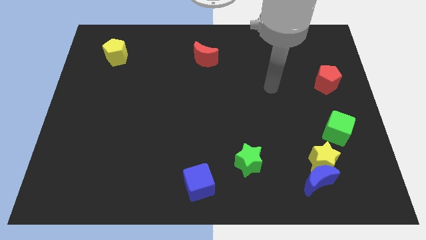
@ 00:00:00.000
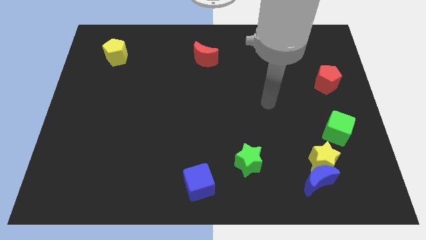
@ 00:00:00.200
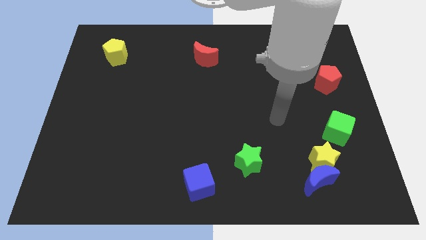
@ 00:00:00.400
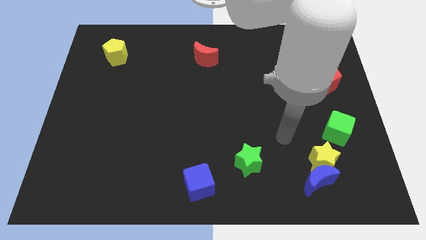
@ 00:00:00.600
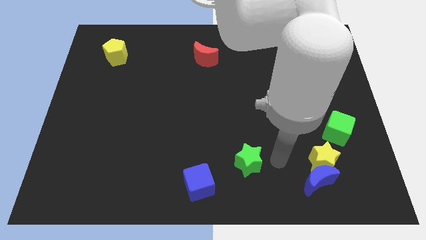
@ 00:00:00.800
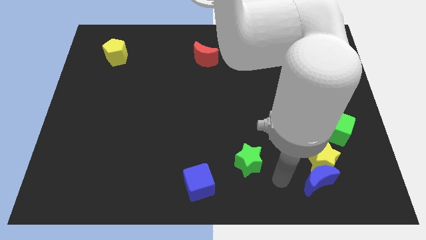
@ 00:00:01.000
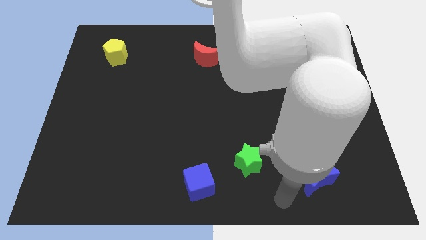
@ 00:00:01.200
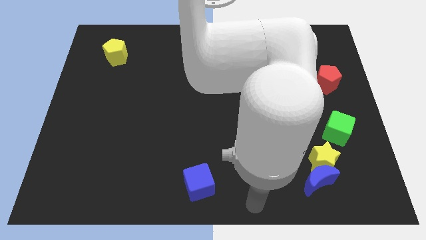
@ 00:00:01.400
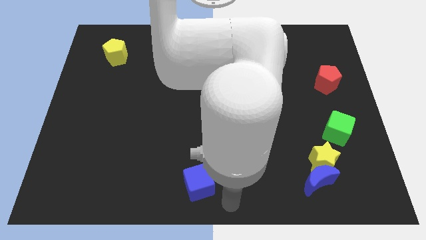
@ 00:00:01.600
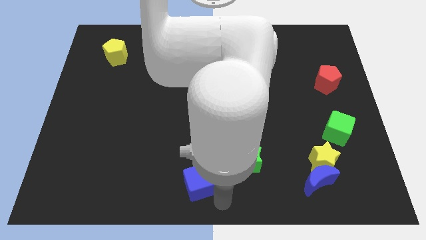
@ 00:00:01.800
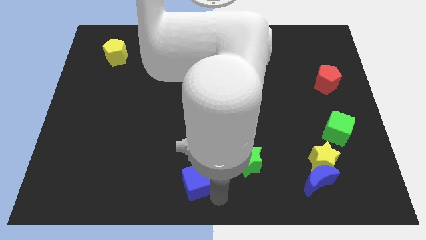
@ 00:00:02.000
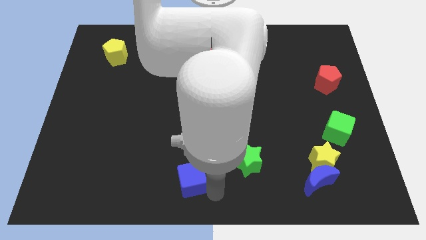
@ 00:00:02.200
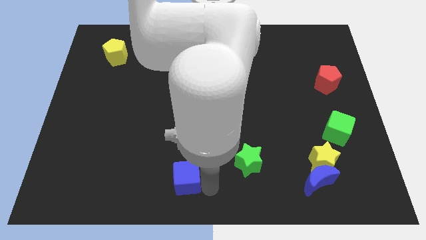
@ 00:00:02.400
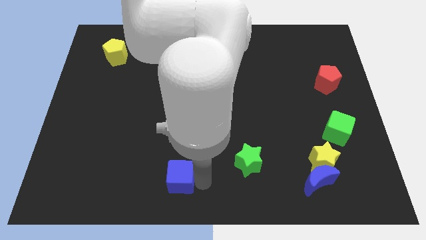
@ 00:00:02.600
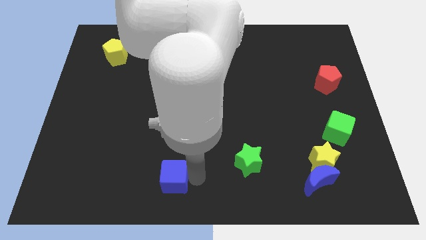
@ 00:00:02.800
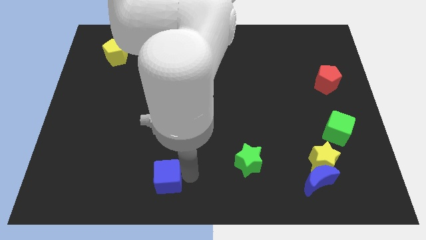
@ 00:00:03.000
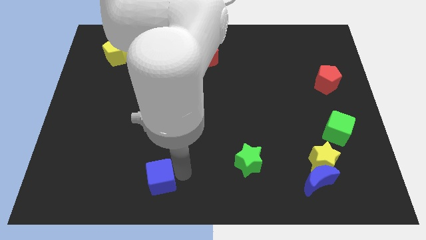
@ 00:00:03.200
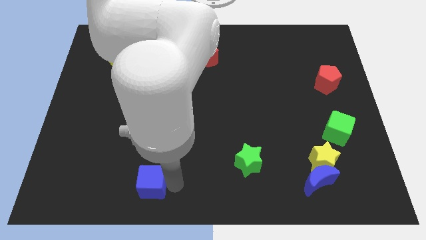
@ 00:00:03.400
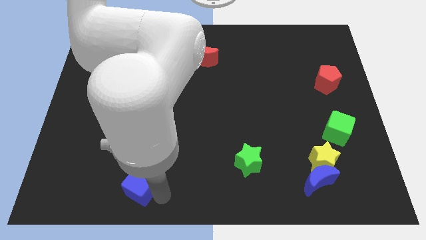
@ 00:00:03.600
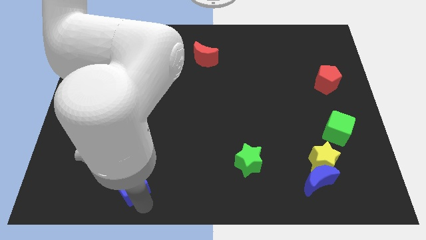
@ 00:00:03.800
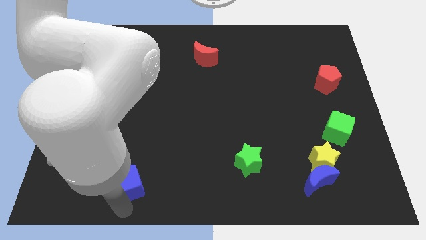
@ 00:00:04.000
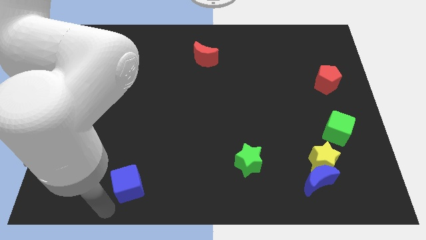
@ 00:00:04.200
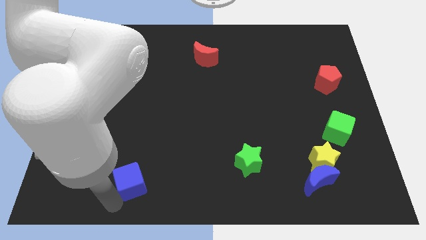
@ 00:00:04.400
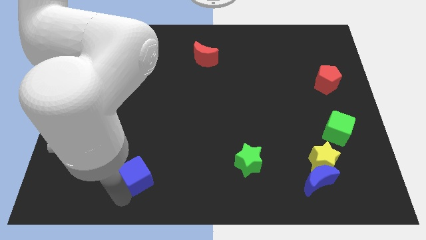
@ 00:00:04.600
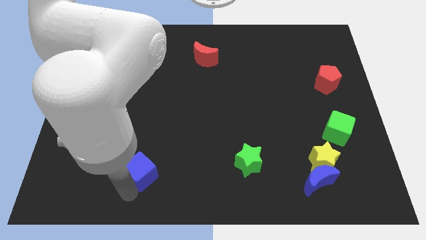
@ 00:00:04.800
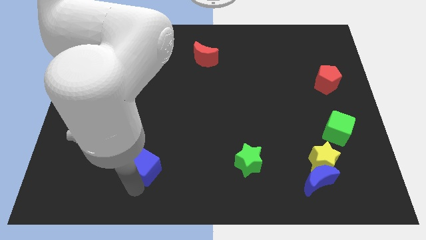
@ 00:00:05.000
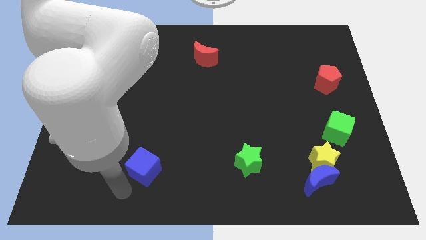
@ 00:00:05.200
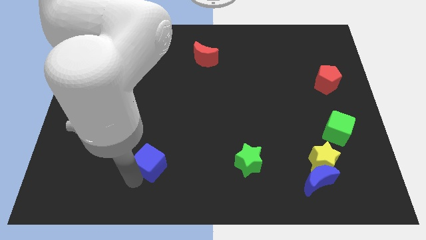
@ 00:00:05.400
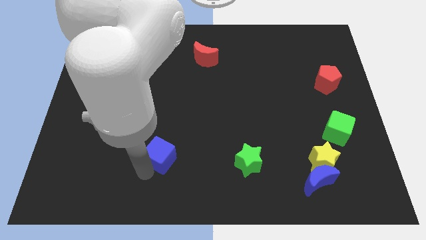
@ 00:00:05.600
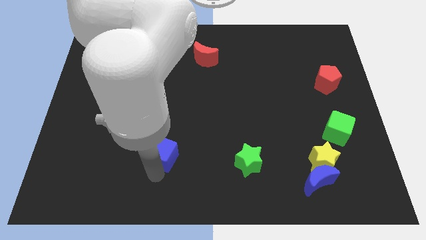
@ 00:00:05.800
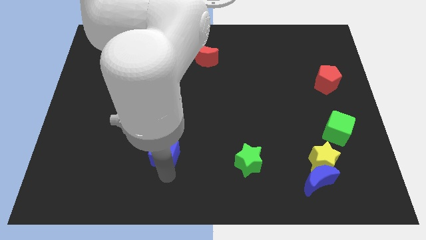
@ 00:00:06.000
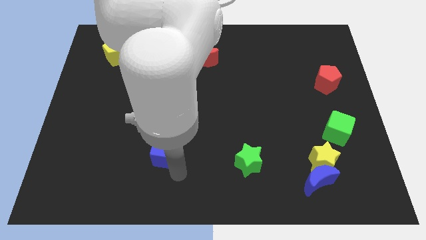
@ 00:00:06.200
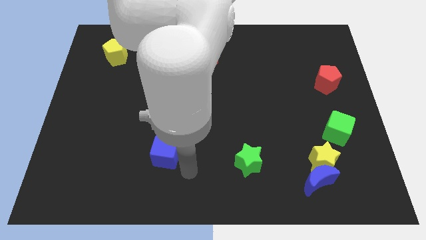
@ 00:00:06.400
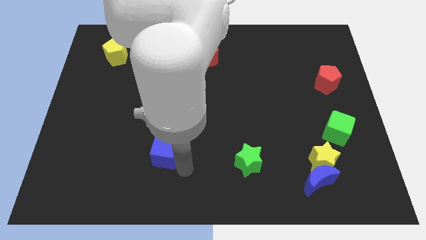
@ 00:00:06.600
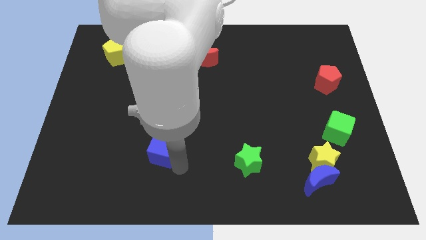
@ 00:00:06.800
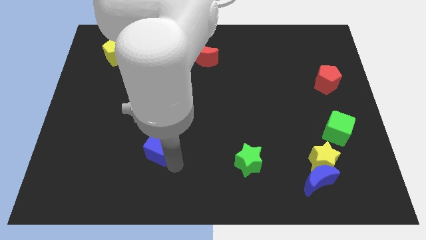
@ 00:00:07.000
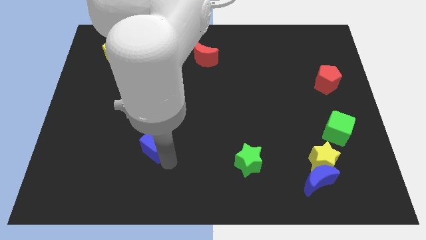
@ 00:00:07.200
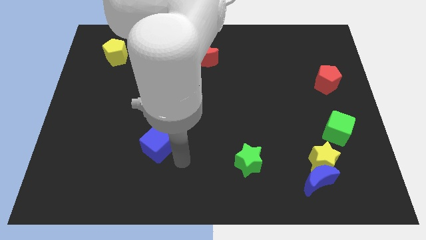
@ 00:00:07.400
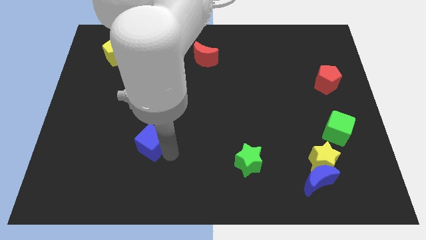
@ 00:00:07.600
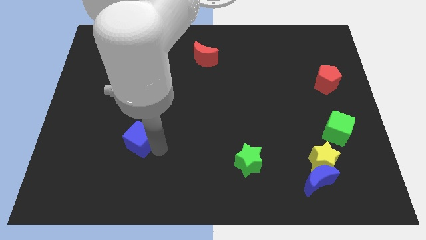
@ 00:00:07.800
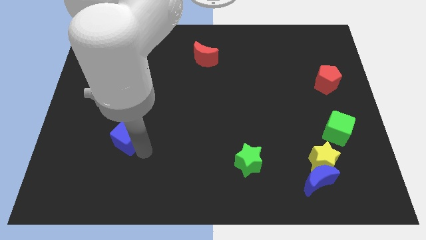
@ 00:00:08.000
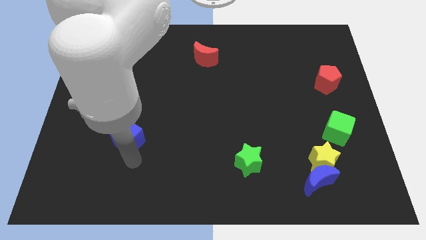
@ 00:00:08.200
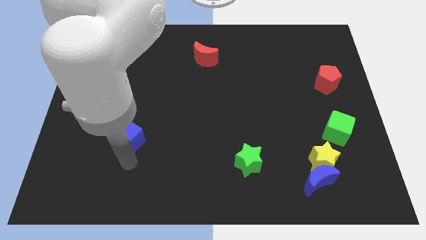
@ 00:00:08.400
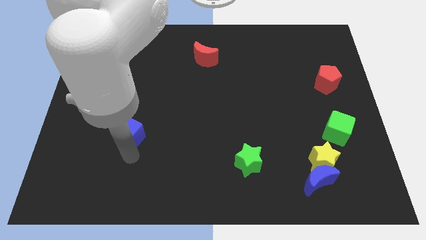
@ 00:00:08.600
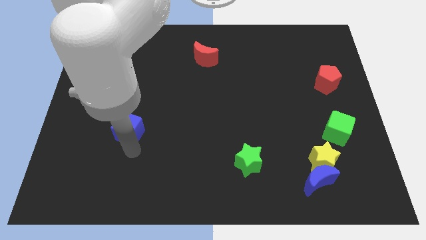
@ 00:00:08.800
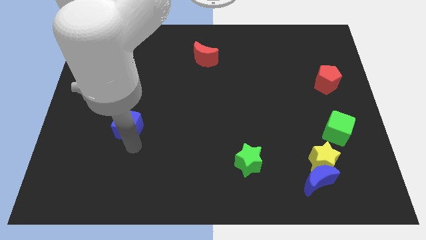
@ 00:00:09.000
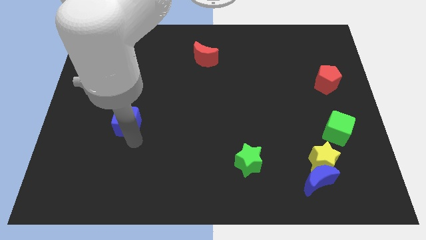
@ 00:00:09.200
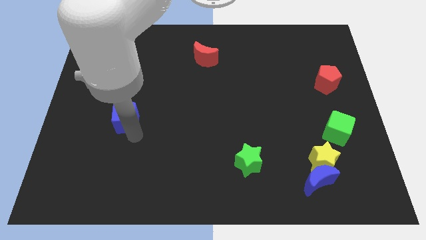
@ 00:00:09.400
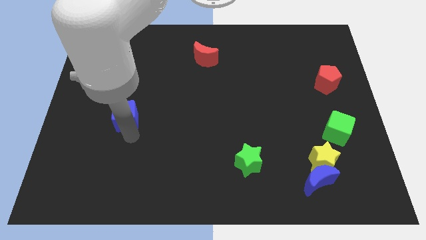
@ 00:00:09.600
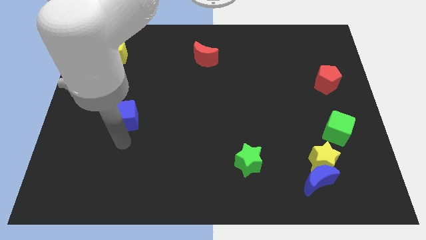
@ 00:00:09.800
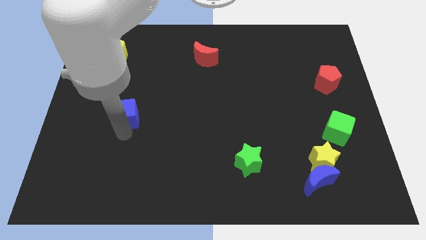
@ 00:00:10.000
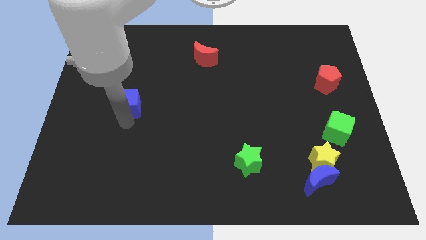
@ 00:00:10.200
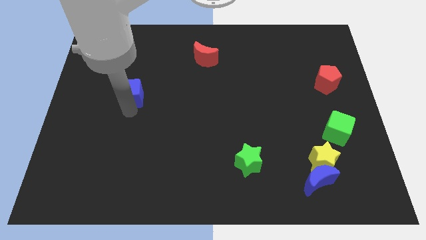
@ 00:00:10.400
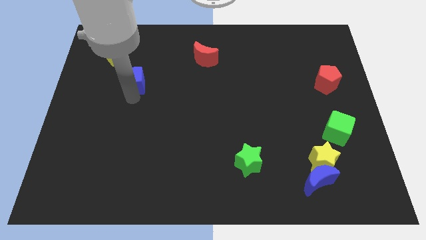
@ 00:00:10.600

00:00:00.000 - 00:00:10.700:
move the blue cube to the bottom right of the yellow pentagon
